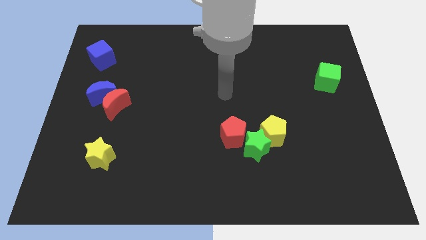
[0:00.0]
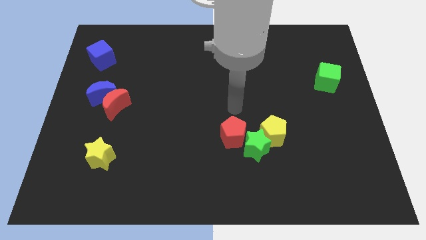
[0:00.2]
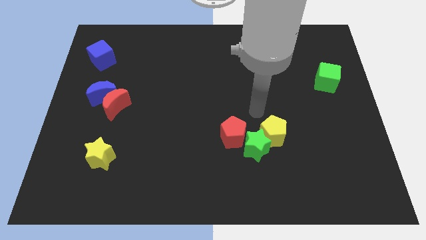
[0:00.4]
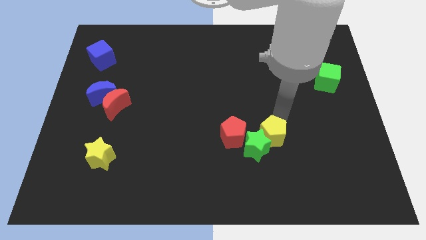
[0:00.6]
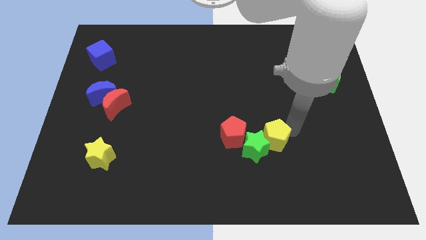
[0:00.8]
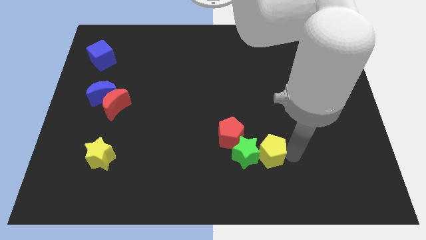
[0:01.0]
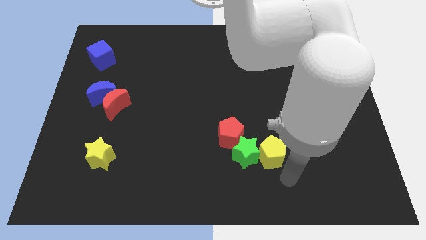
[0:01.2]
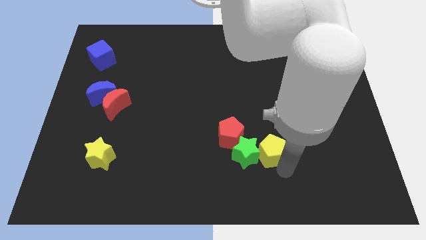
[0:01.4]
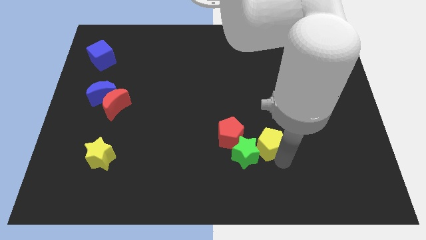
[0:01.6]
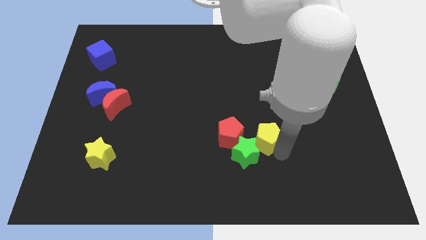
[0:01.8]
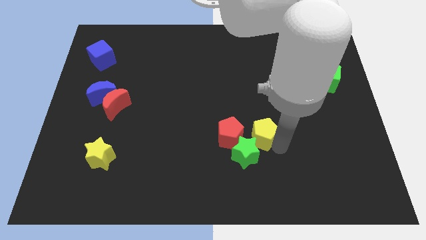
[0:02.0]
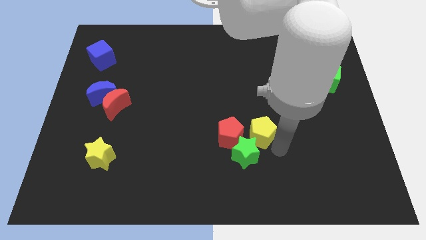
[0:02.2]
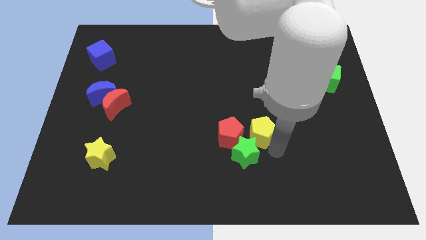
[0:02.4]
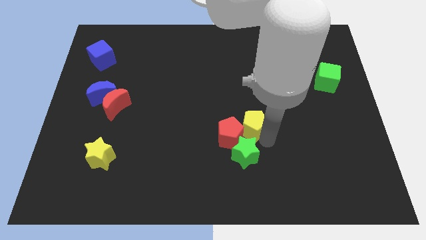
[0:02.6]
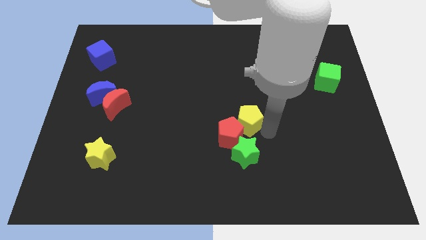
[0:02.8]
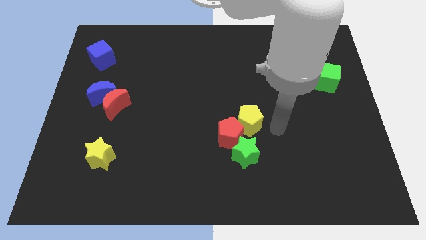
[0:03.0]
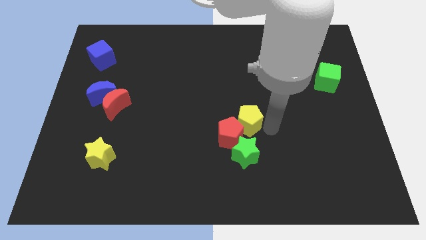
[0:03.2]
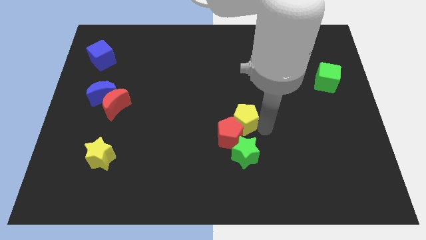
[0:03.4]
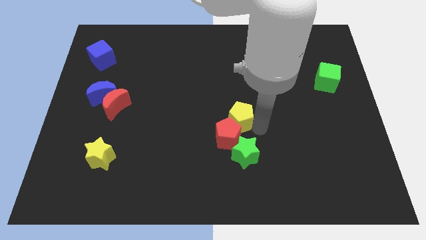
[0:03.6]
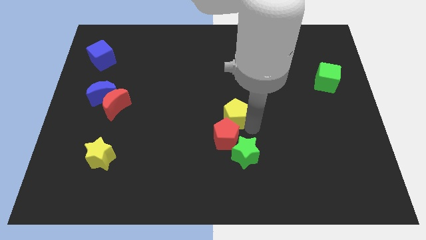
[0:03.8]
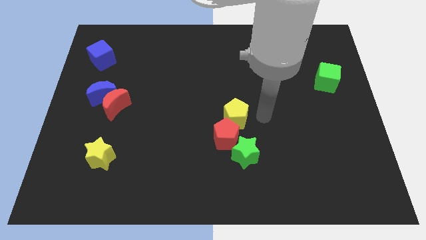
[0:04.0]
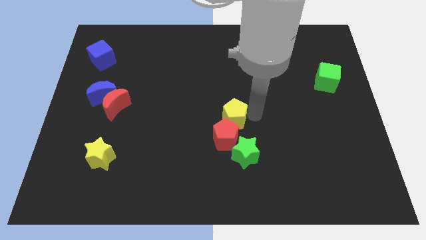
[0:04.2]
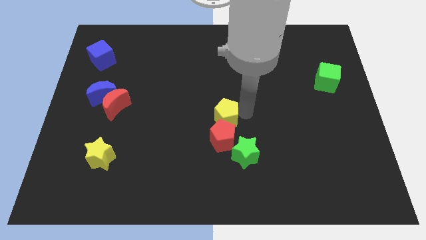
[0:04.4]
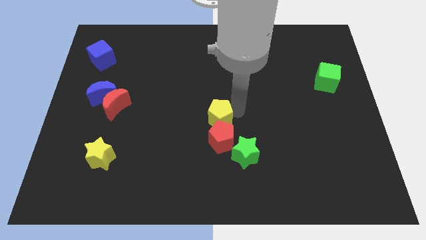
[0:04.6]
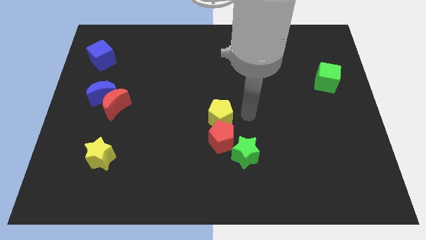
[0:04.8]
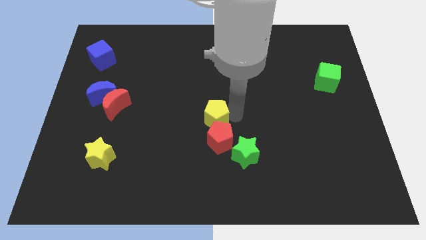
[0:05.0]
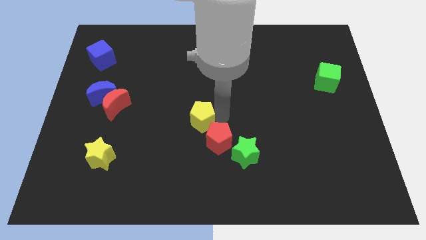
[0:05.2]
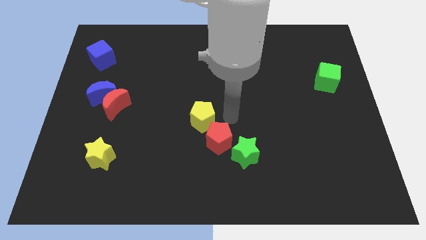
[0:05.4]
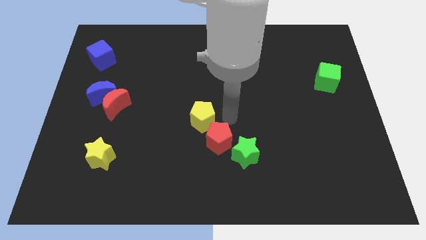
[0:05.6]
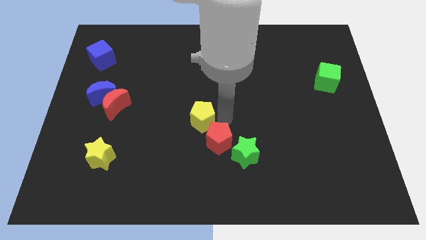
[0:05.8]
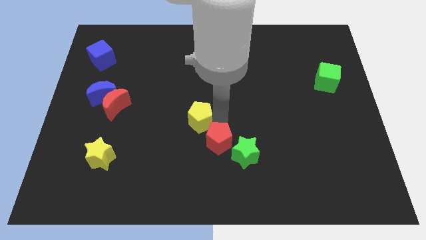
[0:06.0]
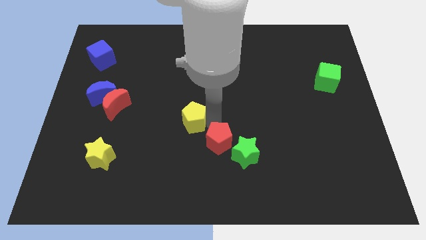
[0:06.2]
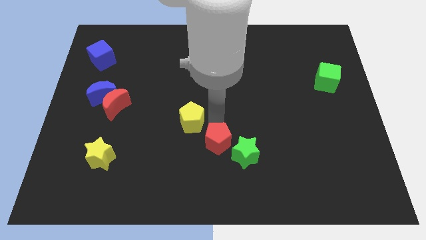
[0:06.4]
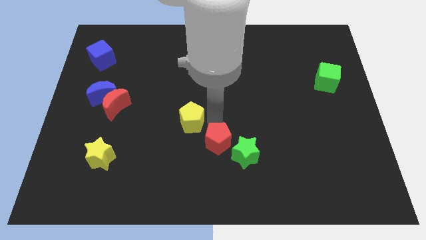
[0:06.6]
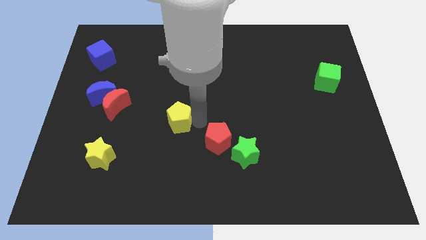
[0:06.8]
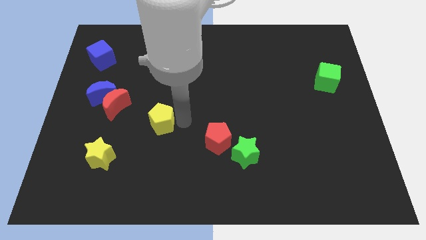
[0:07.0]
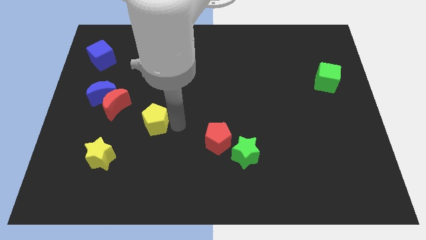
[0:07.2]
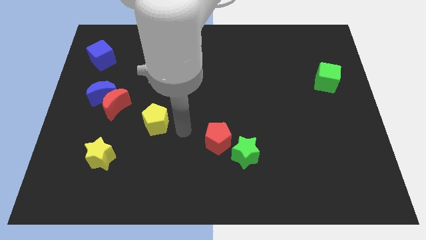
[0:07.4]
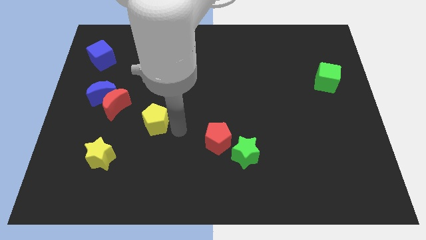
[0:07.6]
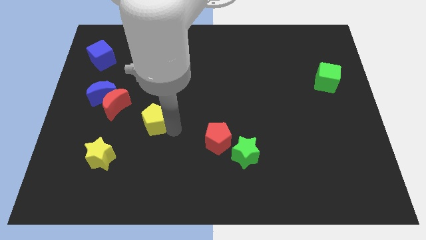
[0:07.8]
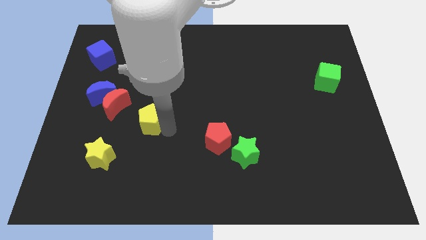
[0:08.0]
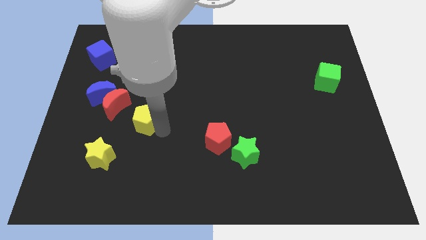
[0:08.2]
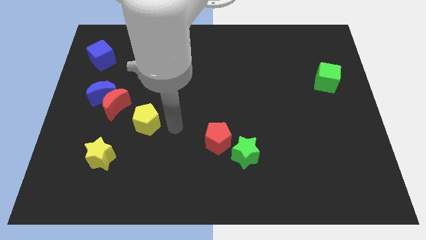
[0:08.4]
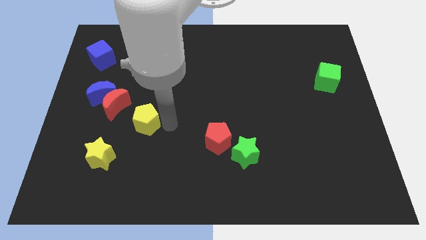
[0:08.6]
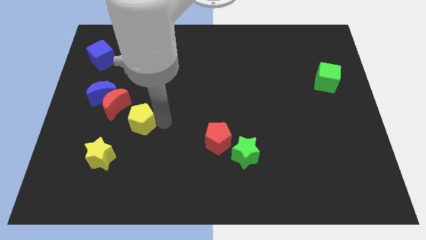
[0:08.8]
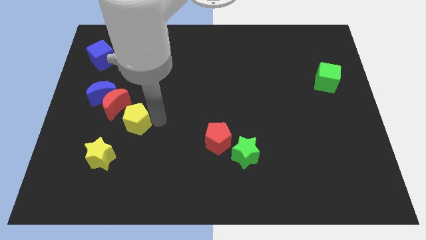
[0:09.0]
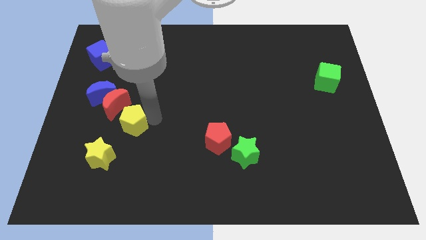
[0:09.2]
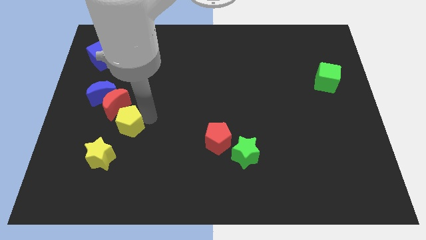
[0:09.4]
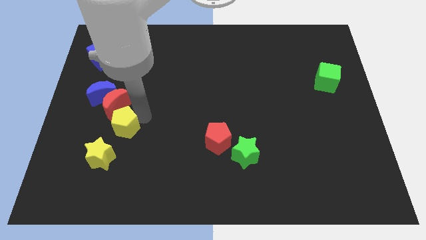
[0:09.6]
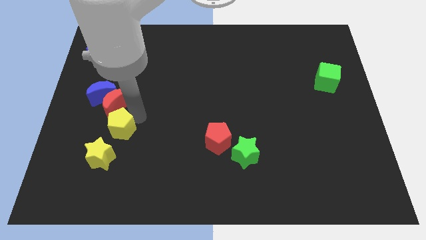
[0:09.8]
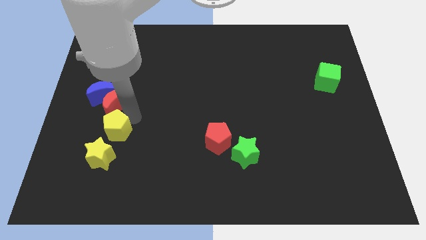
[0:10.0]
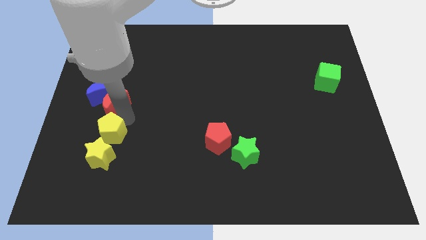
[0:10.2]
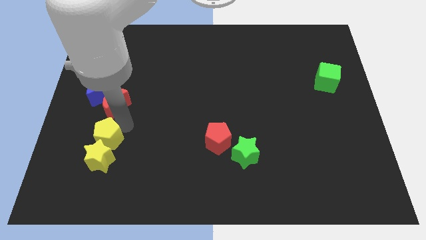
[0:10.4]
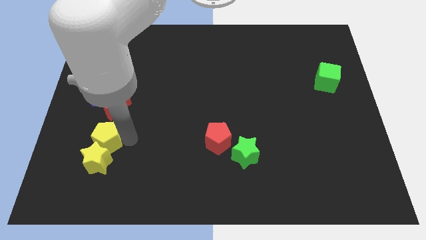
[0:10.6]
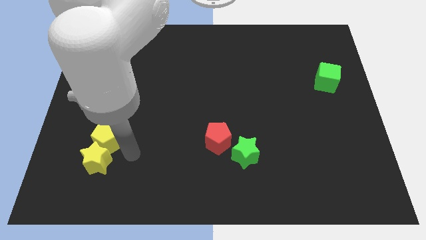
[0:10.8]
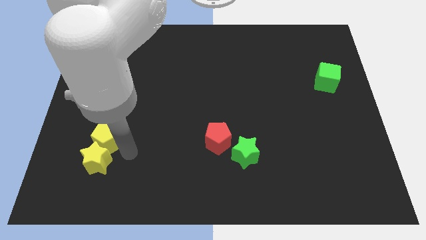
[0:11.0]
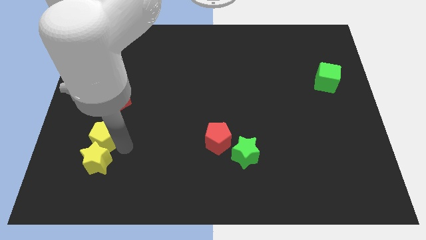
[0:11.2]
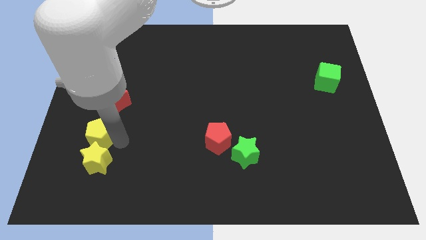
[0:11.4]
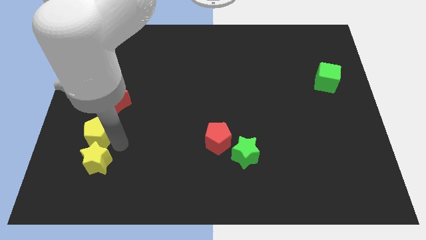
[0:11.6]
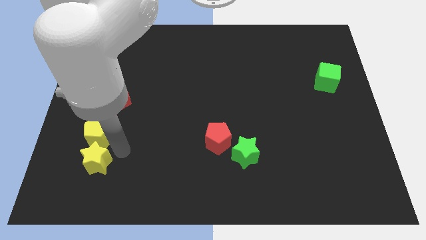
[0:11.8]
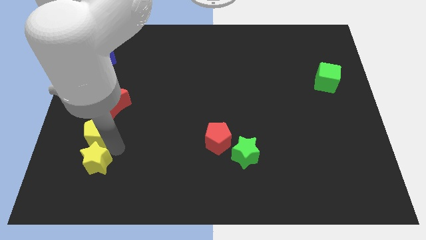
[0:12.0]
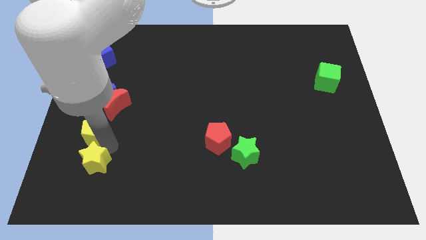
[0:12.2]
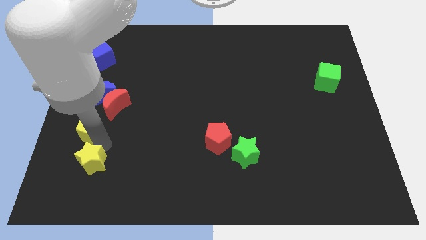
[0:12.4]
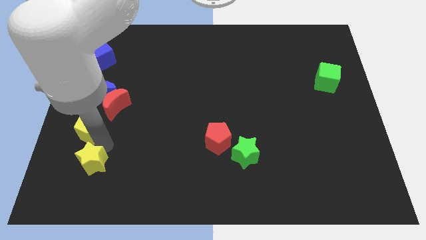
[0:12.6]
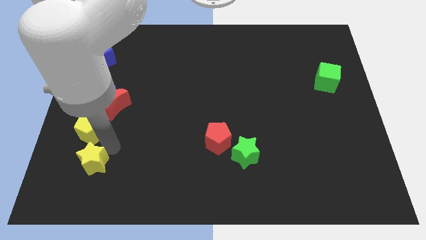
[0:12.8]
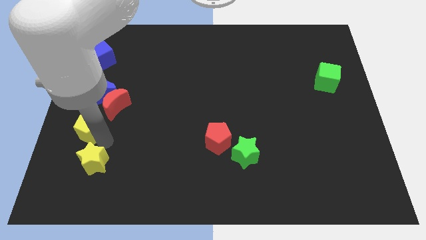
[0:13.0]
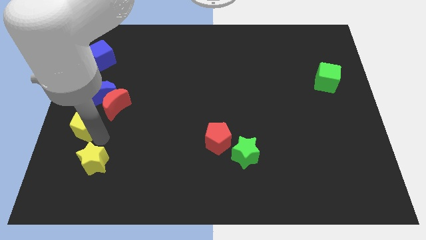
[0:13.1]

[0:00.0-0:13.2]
move the yellow pentagon to the center left
